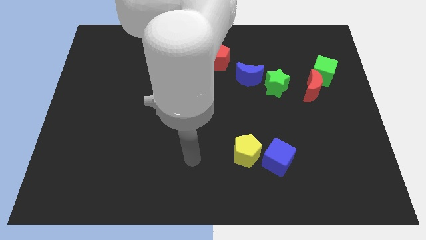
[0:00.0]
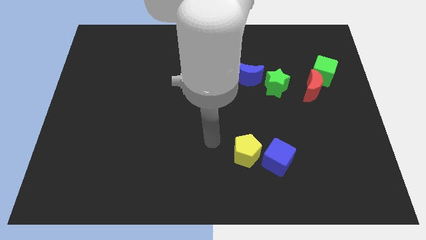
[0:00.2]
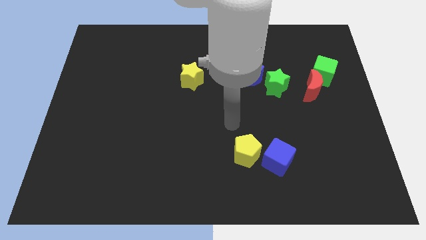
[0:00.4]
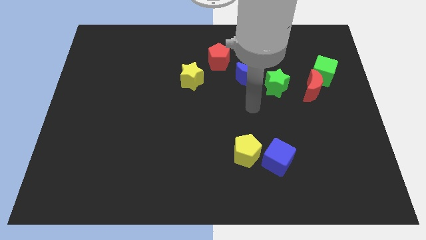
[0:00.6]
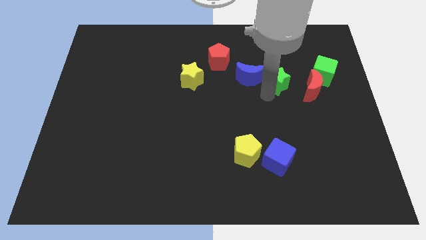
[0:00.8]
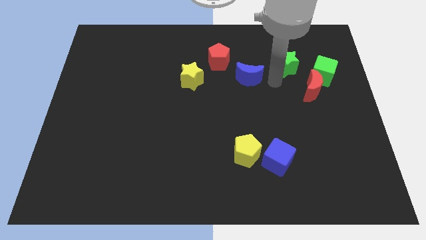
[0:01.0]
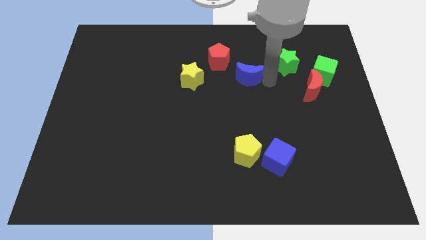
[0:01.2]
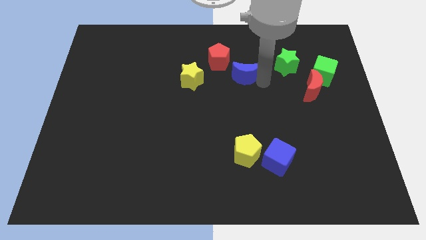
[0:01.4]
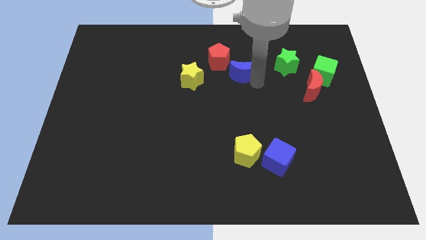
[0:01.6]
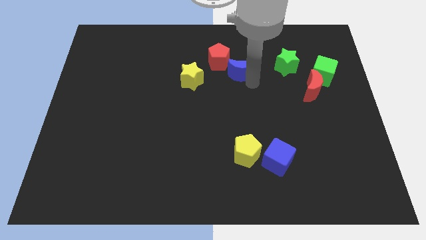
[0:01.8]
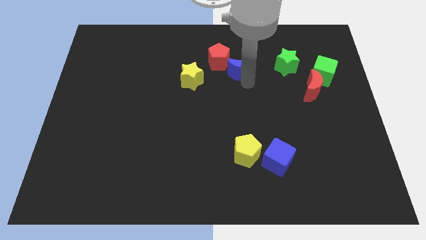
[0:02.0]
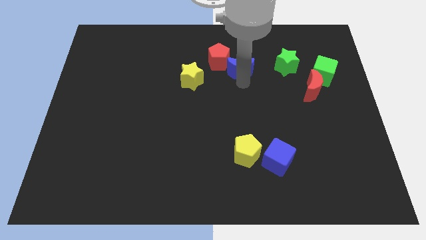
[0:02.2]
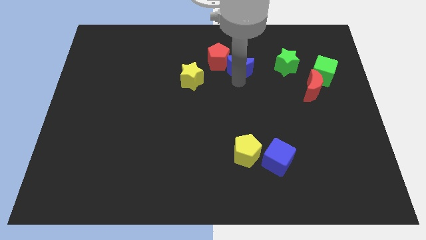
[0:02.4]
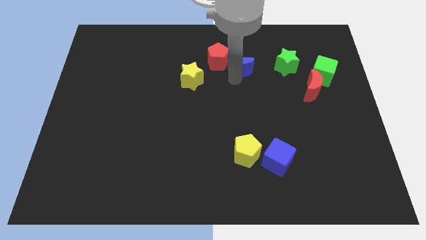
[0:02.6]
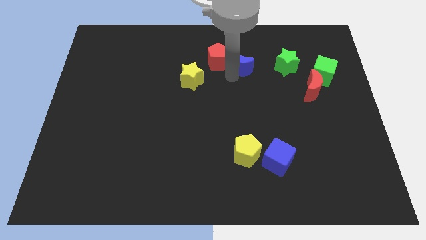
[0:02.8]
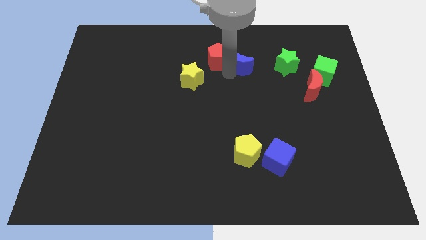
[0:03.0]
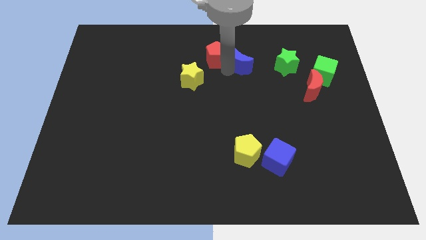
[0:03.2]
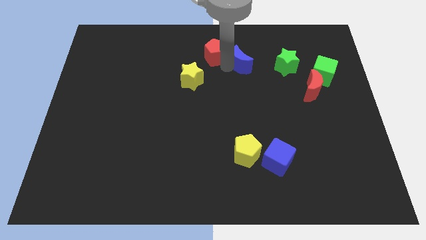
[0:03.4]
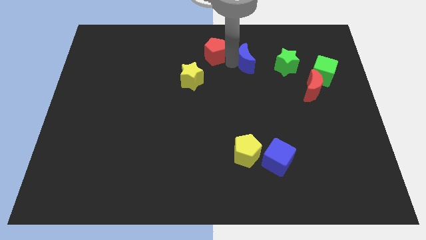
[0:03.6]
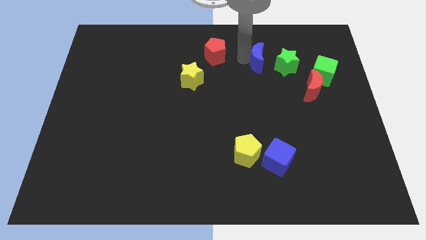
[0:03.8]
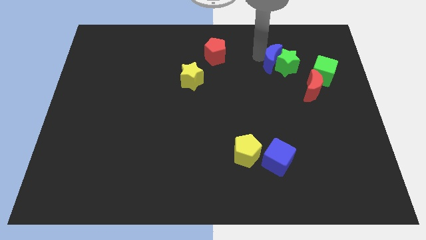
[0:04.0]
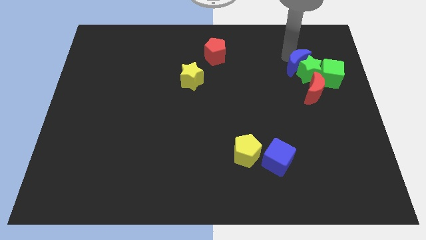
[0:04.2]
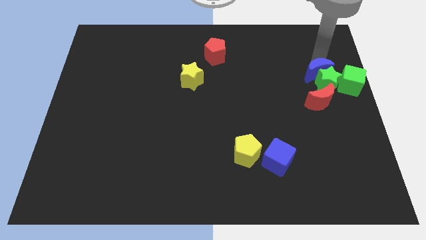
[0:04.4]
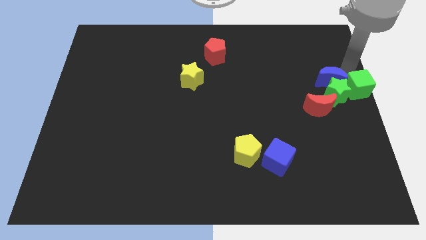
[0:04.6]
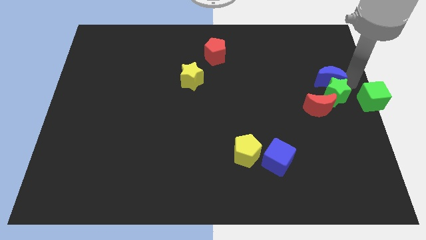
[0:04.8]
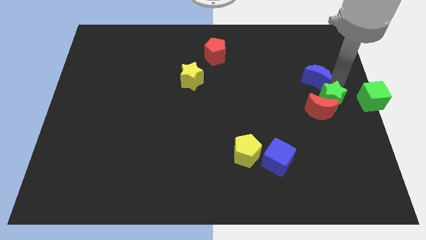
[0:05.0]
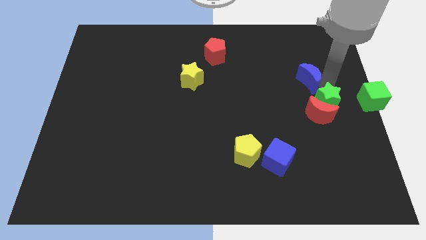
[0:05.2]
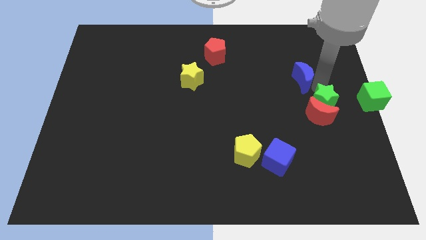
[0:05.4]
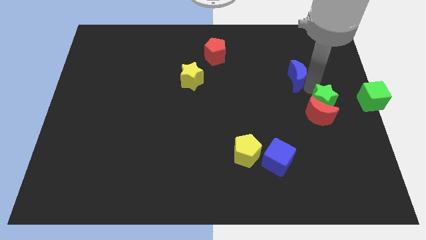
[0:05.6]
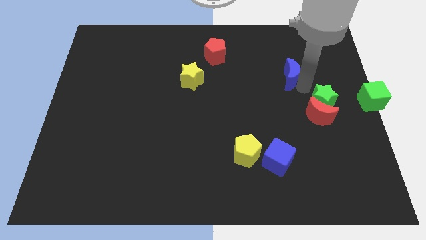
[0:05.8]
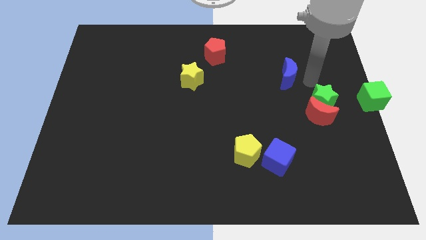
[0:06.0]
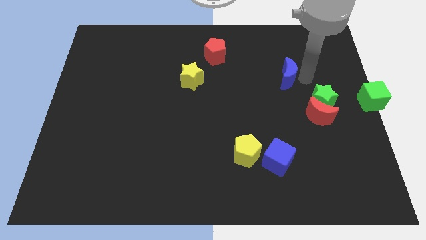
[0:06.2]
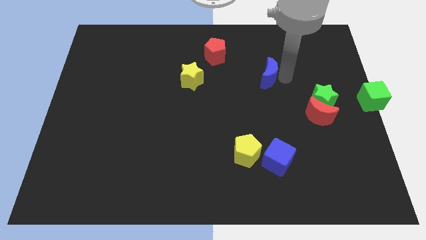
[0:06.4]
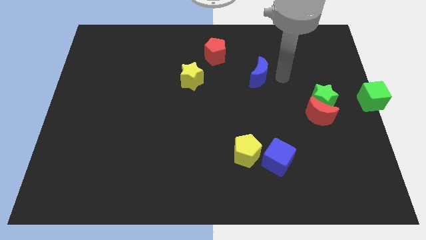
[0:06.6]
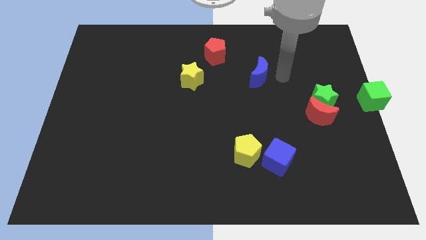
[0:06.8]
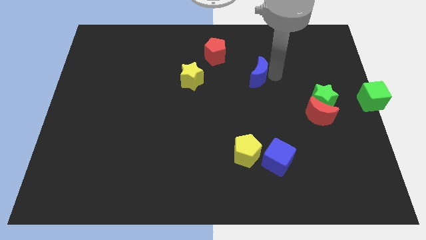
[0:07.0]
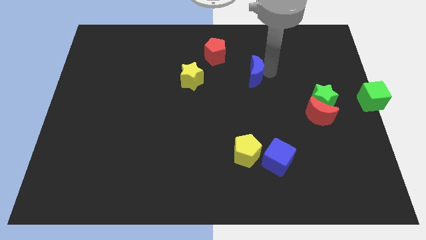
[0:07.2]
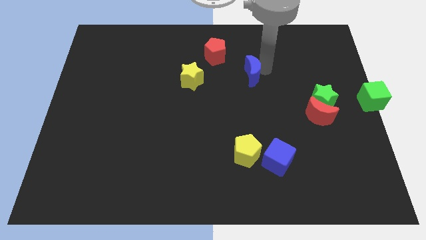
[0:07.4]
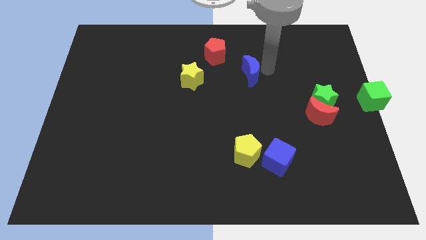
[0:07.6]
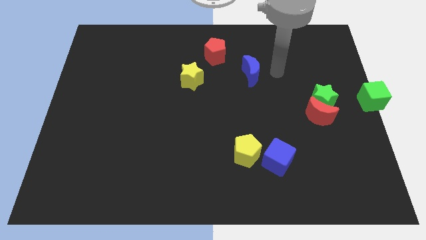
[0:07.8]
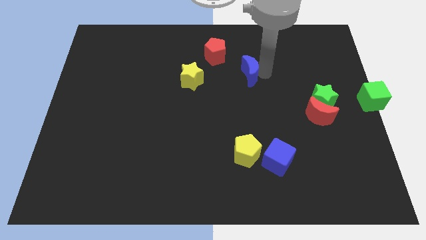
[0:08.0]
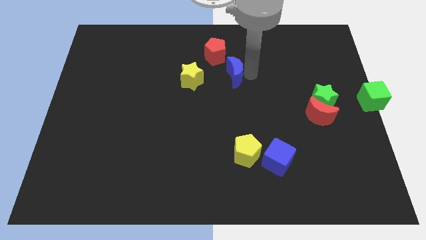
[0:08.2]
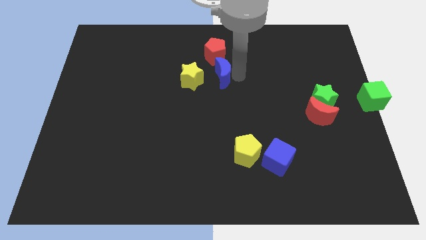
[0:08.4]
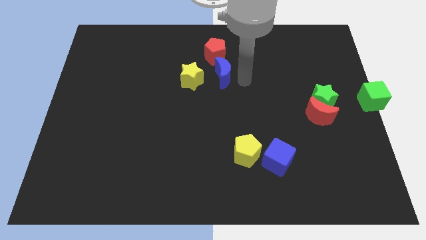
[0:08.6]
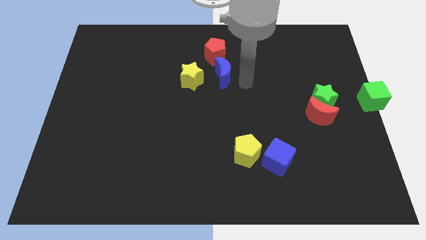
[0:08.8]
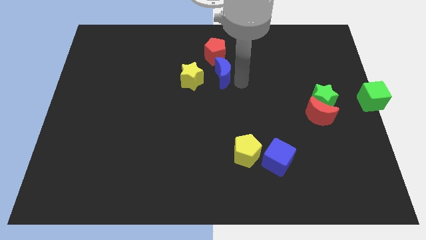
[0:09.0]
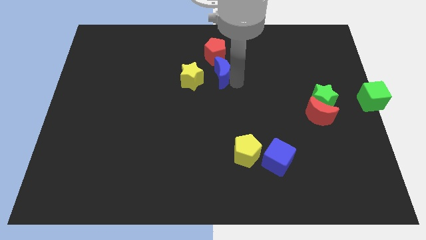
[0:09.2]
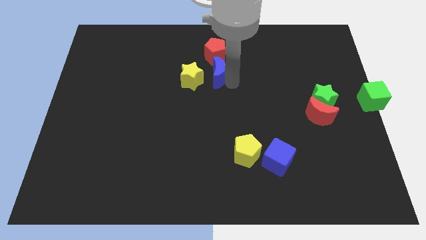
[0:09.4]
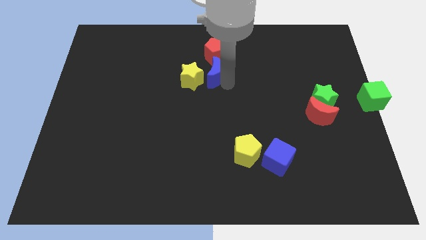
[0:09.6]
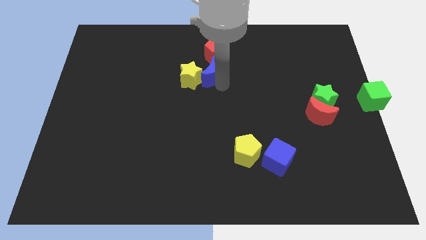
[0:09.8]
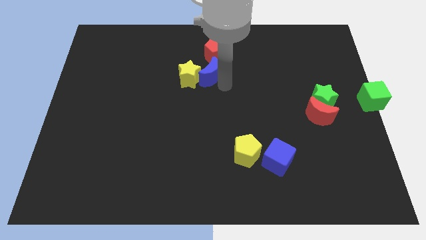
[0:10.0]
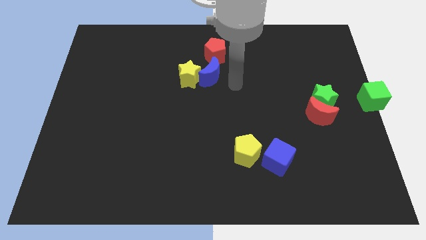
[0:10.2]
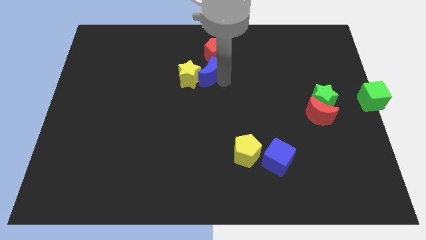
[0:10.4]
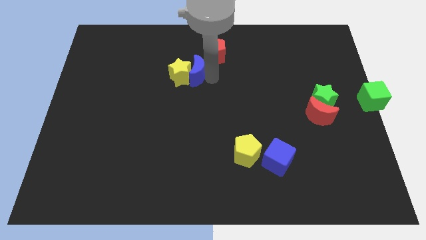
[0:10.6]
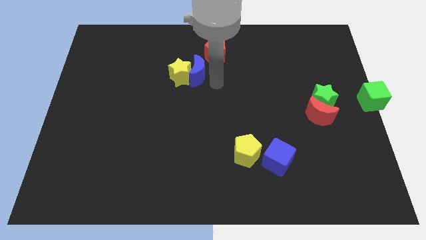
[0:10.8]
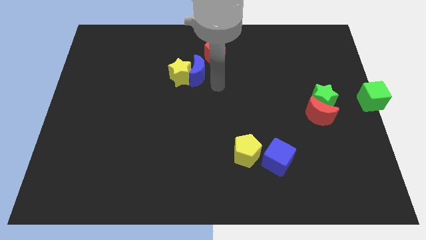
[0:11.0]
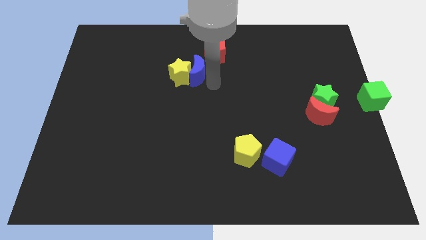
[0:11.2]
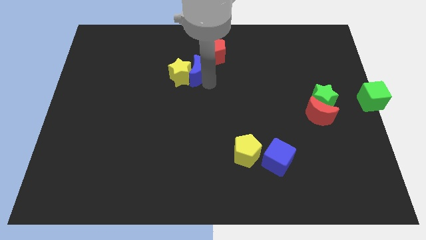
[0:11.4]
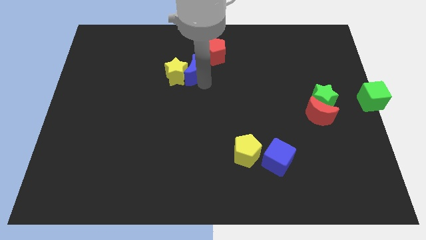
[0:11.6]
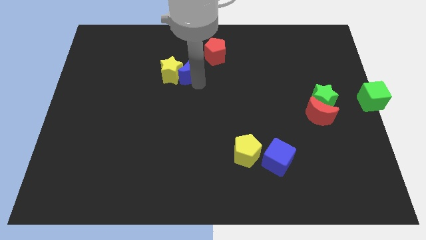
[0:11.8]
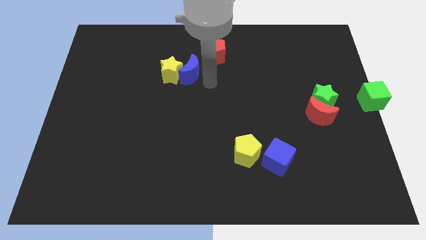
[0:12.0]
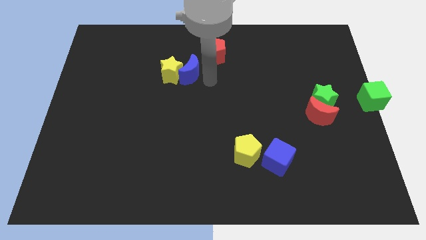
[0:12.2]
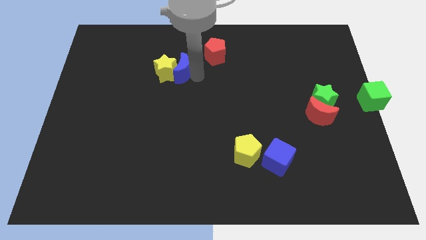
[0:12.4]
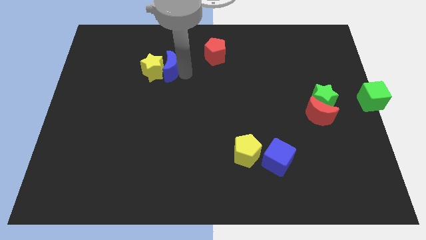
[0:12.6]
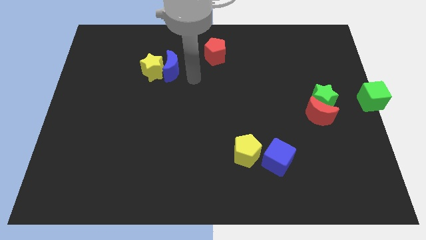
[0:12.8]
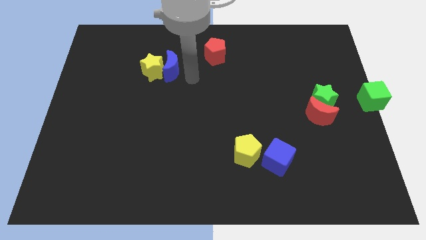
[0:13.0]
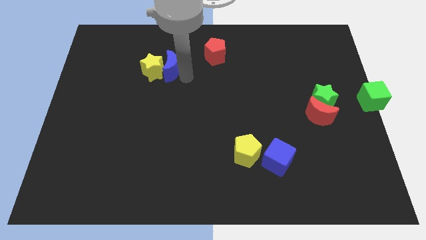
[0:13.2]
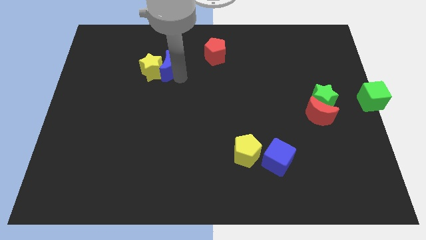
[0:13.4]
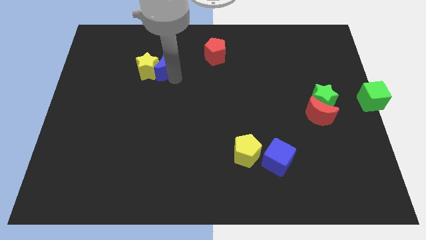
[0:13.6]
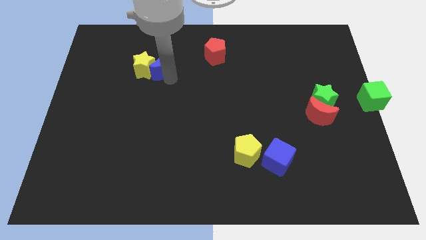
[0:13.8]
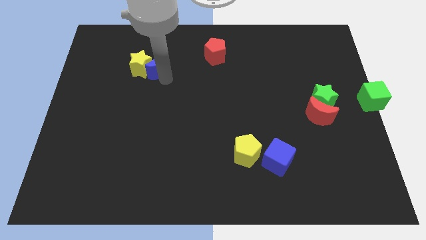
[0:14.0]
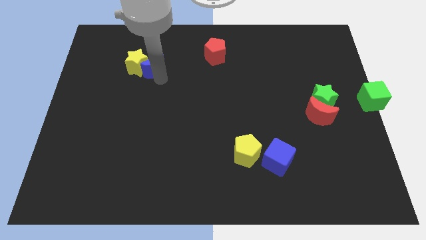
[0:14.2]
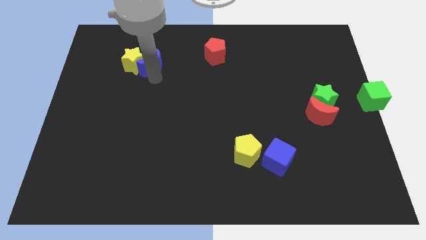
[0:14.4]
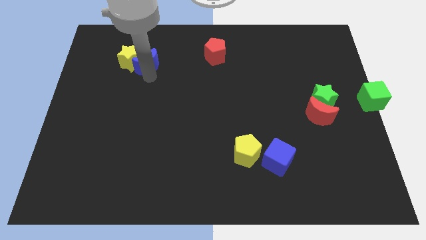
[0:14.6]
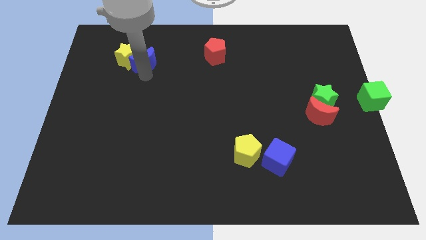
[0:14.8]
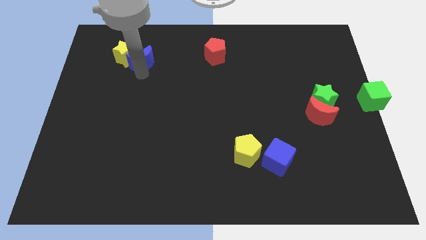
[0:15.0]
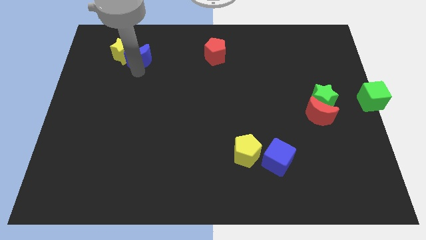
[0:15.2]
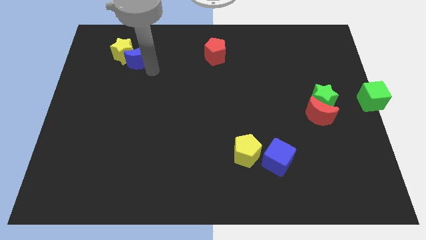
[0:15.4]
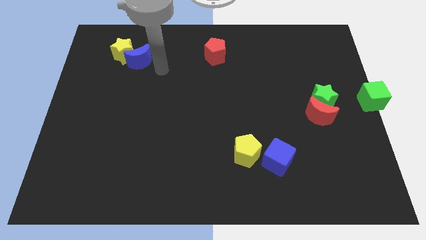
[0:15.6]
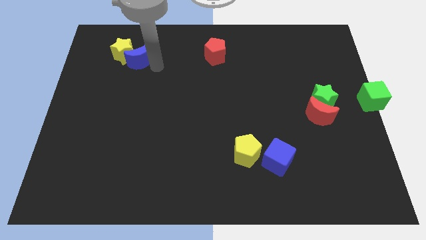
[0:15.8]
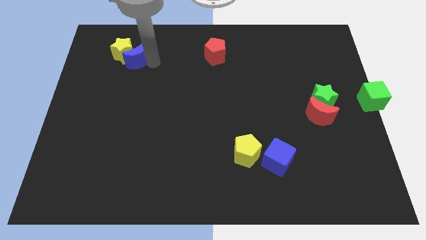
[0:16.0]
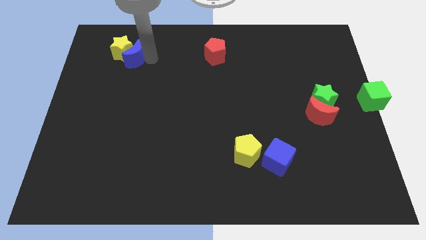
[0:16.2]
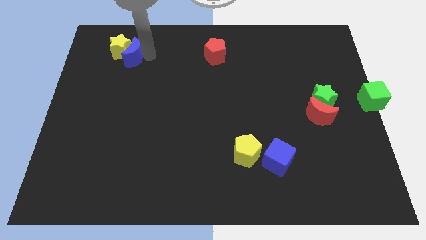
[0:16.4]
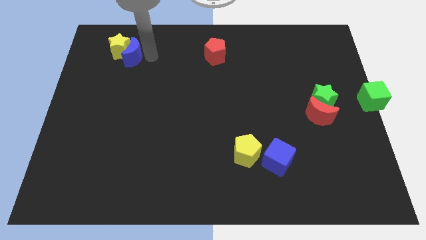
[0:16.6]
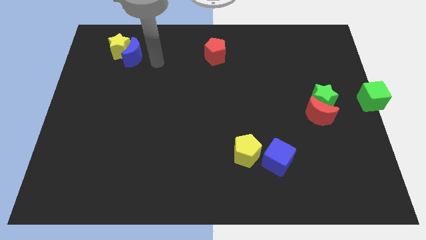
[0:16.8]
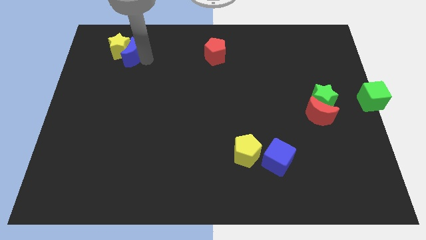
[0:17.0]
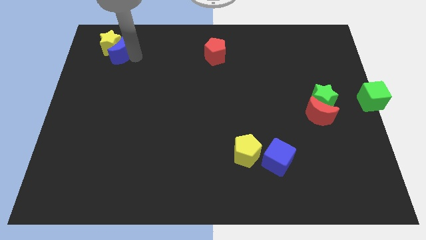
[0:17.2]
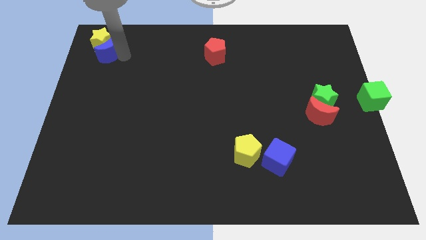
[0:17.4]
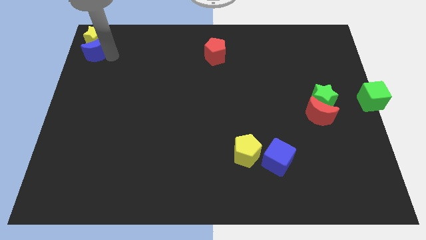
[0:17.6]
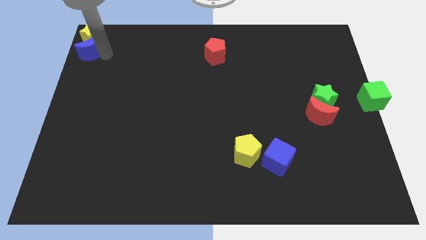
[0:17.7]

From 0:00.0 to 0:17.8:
put the blue moon to the top left
